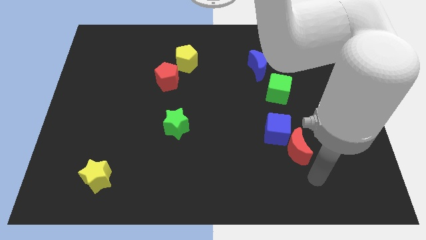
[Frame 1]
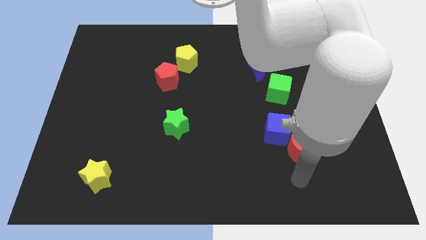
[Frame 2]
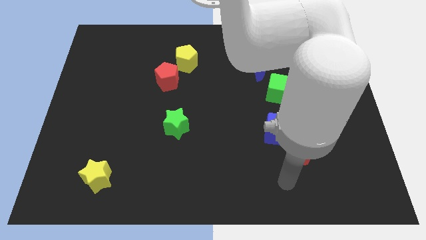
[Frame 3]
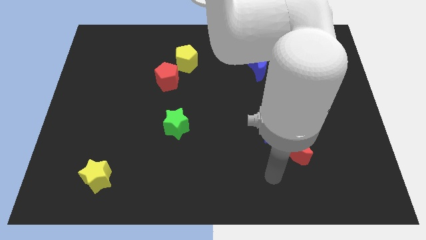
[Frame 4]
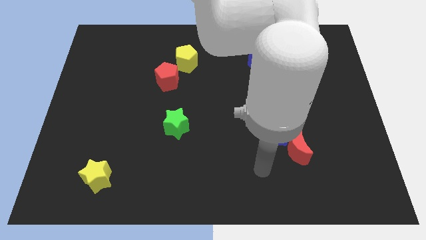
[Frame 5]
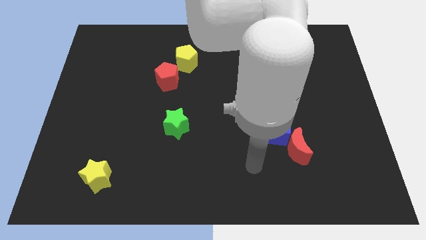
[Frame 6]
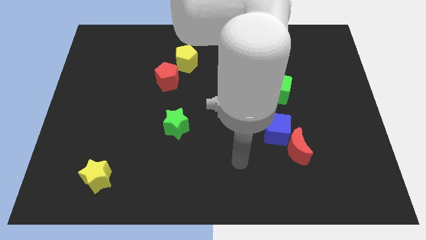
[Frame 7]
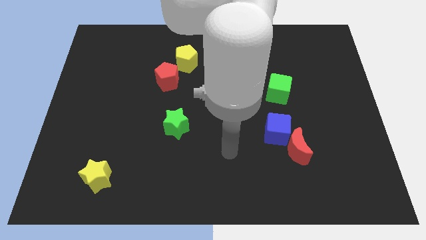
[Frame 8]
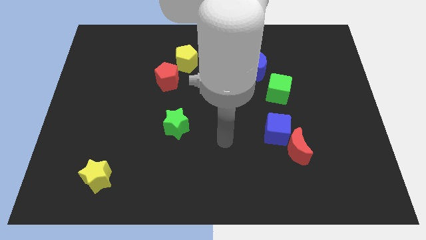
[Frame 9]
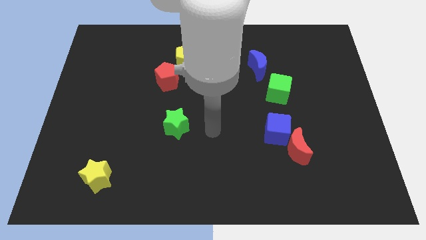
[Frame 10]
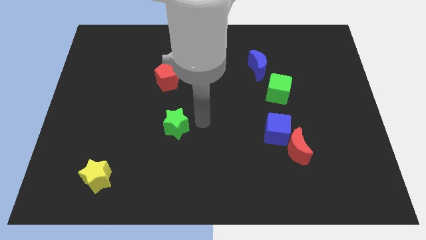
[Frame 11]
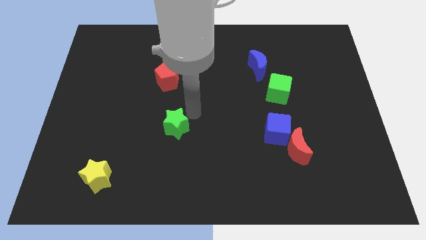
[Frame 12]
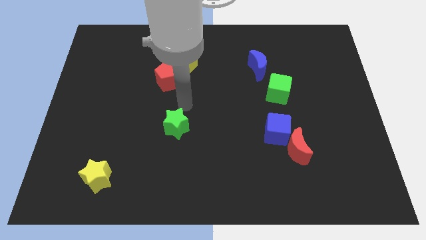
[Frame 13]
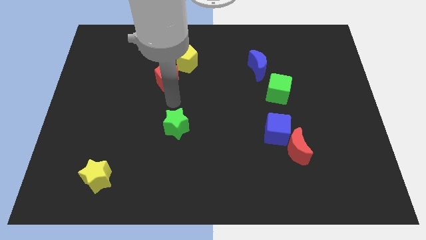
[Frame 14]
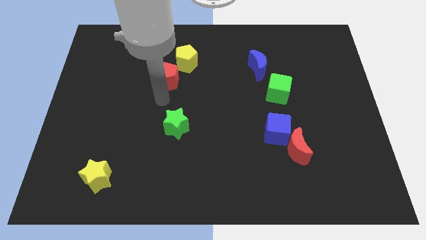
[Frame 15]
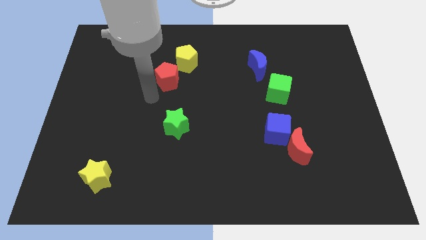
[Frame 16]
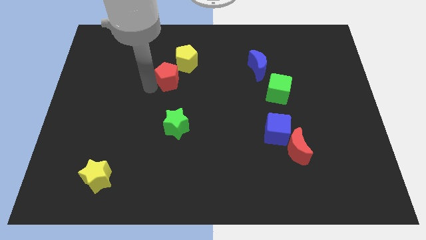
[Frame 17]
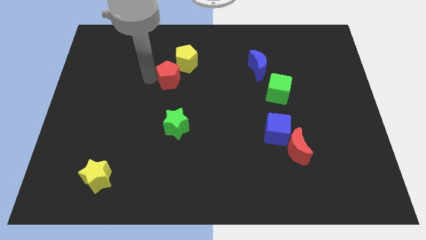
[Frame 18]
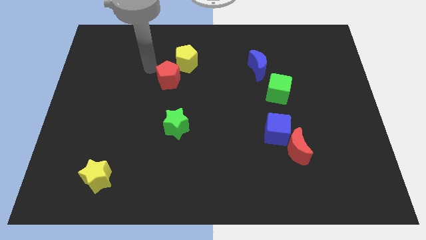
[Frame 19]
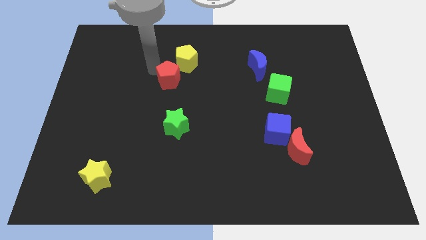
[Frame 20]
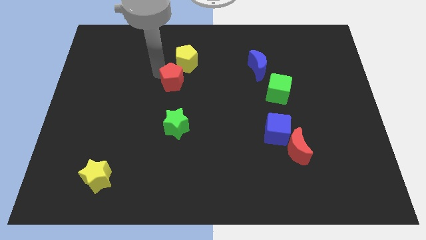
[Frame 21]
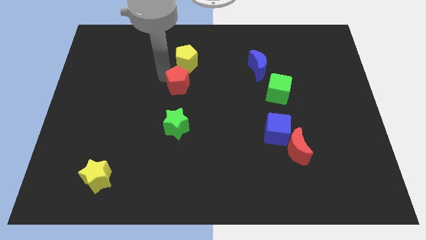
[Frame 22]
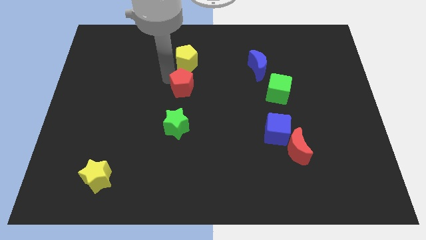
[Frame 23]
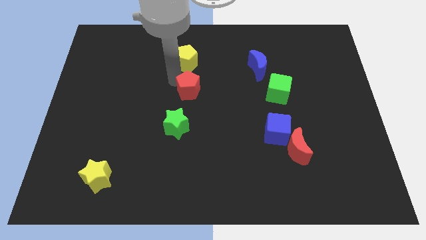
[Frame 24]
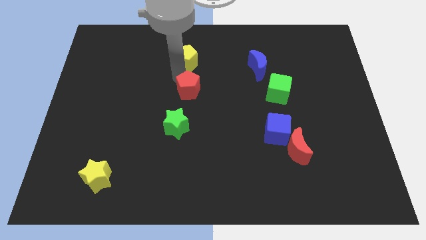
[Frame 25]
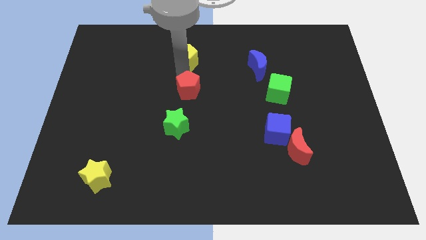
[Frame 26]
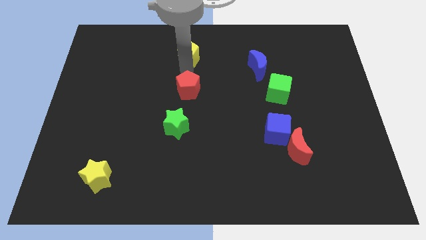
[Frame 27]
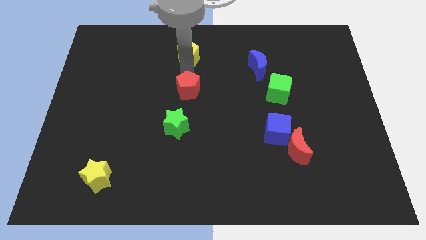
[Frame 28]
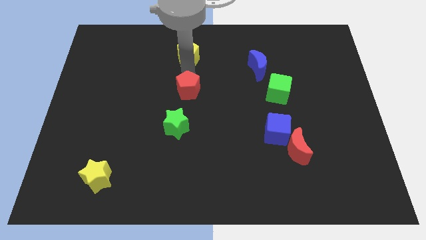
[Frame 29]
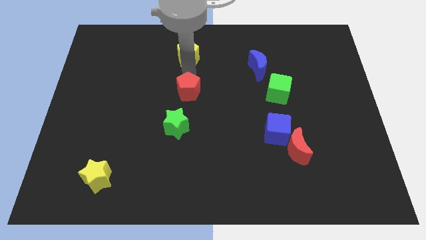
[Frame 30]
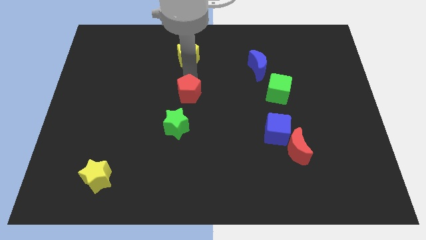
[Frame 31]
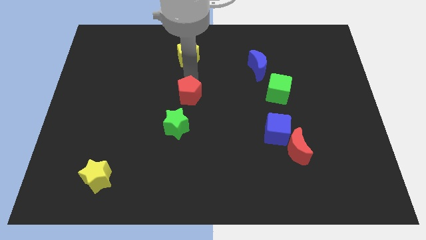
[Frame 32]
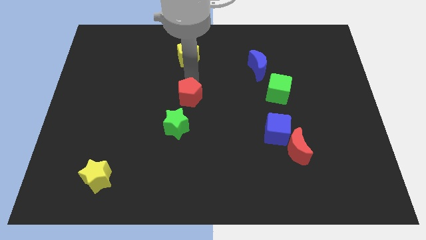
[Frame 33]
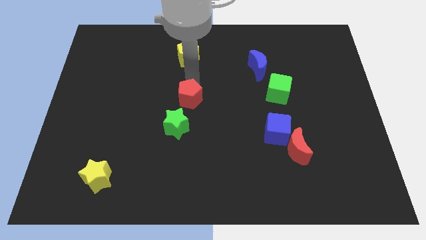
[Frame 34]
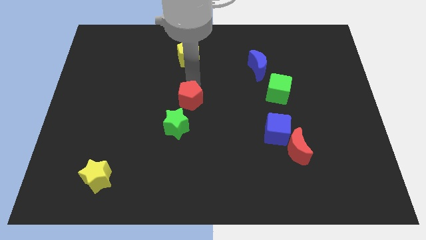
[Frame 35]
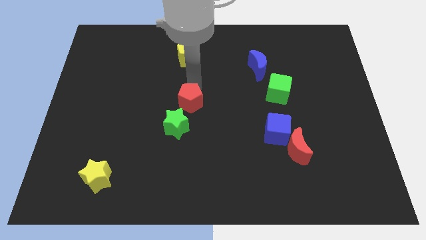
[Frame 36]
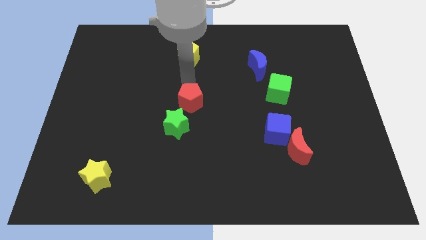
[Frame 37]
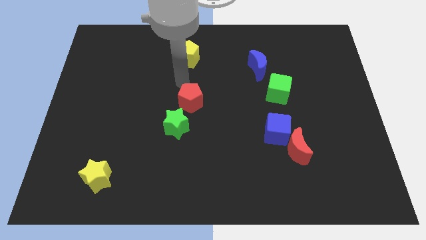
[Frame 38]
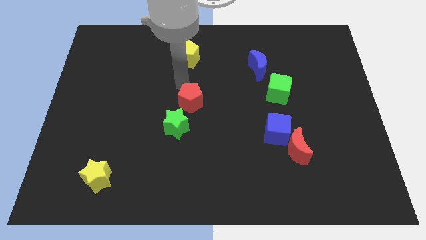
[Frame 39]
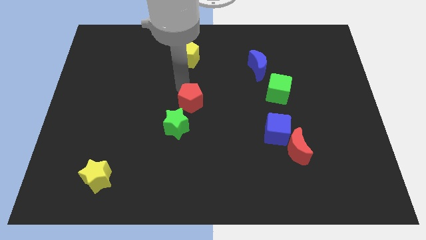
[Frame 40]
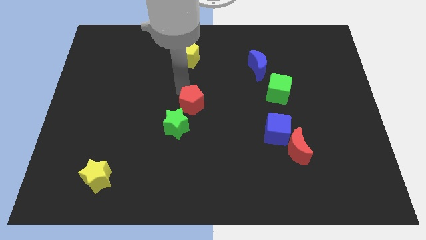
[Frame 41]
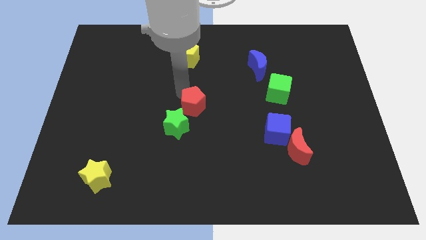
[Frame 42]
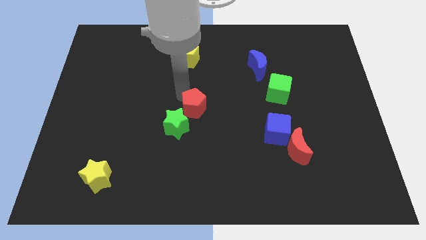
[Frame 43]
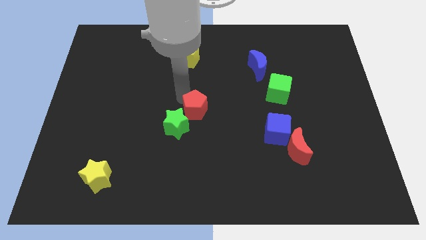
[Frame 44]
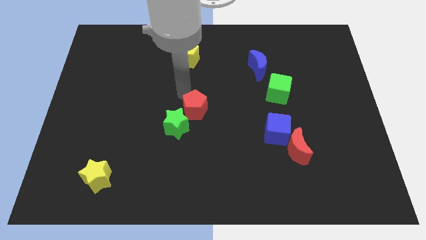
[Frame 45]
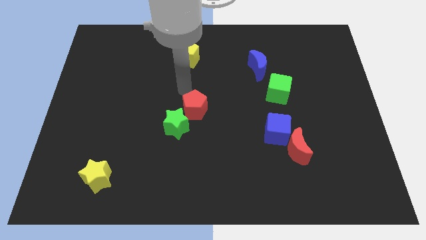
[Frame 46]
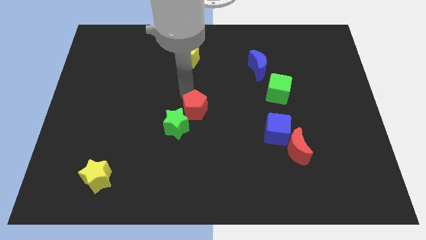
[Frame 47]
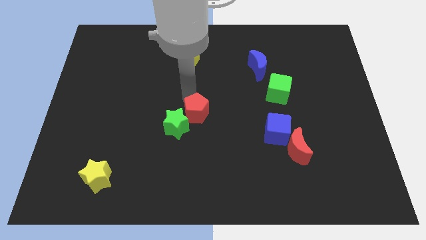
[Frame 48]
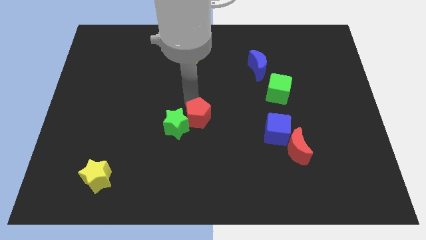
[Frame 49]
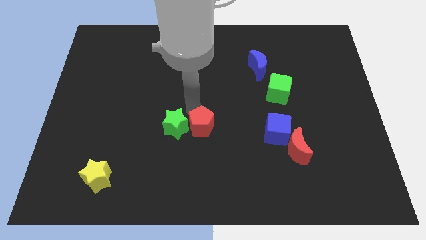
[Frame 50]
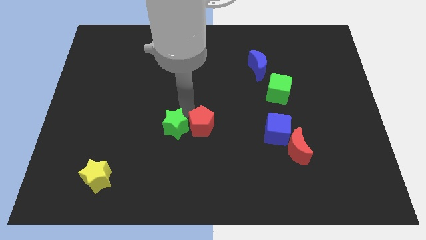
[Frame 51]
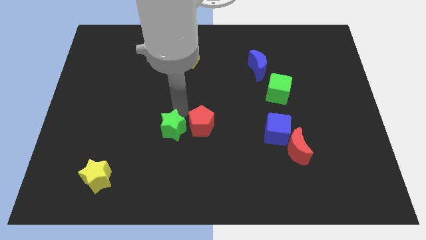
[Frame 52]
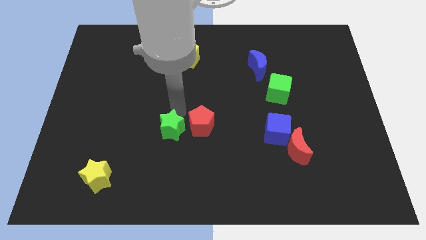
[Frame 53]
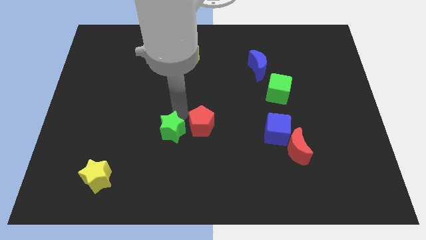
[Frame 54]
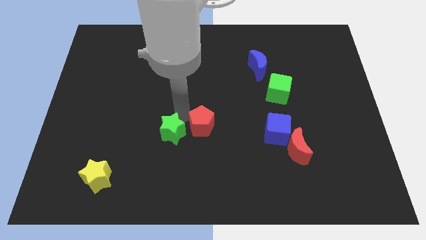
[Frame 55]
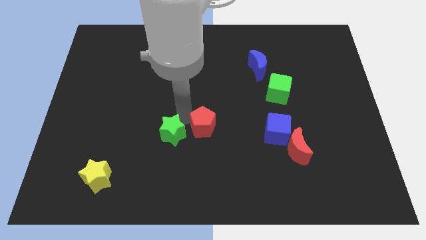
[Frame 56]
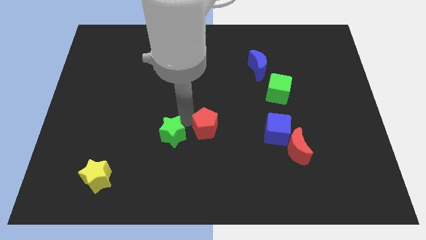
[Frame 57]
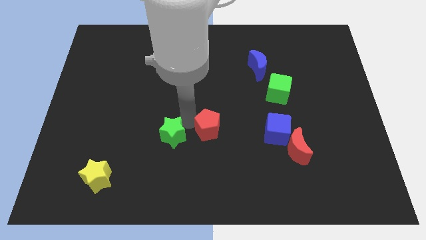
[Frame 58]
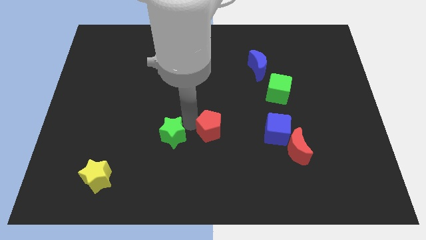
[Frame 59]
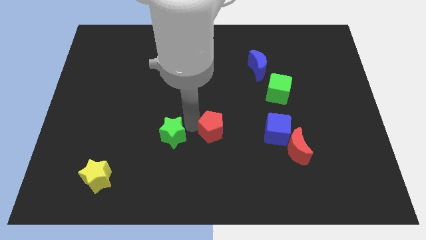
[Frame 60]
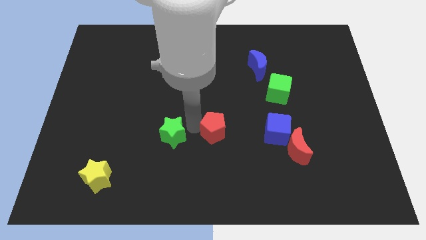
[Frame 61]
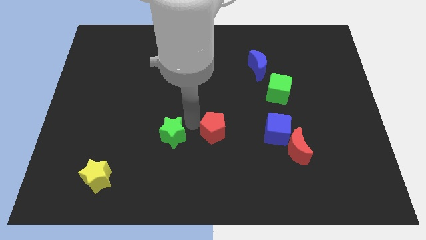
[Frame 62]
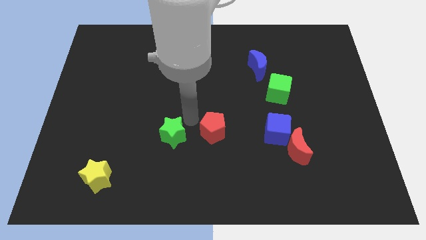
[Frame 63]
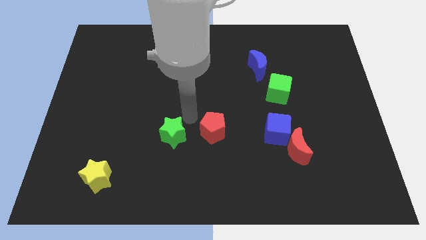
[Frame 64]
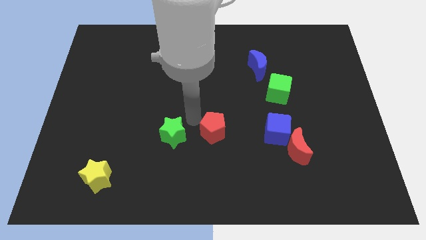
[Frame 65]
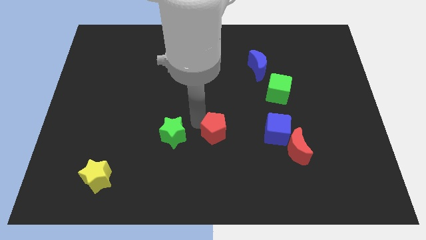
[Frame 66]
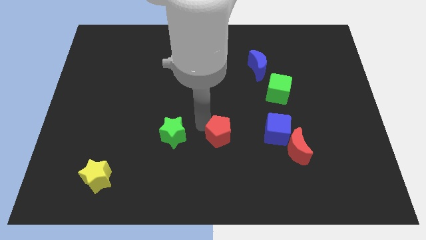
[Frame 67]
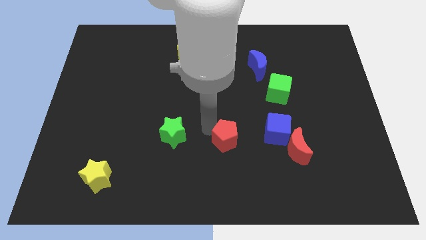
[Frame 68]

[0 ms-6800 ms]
slide the red pentagon to the left of the red moon

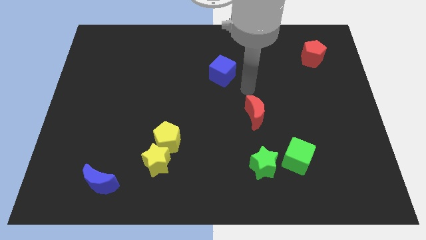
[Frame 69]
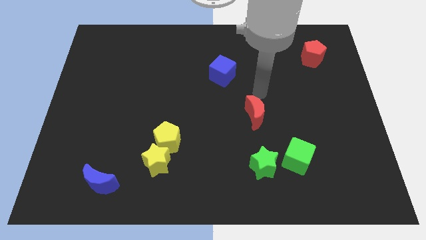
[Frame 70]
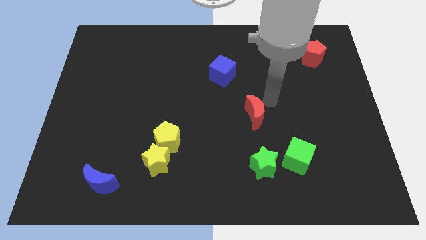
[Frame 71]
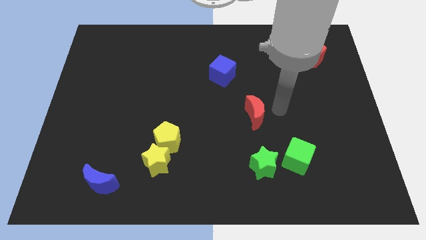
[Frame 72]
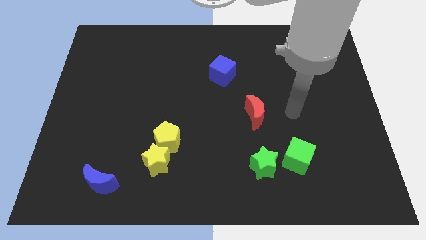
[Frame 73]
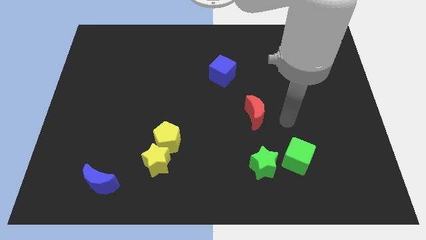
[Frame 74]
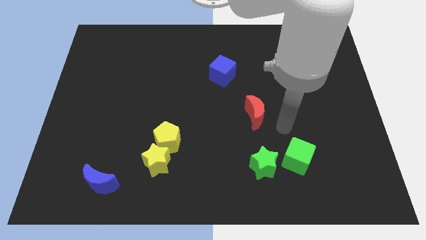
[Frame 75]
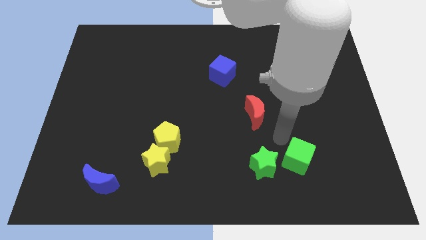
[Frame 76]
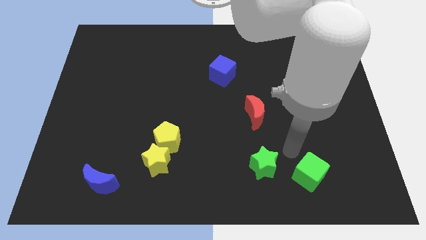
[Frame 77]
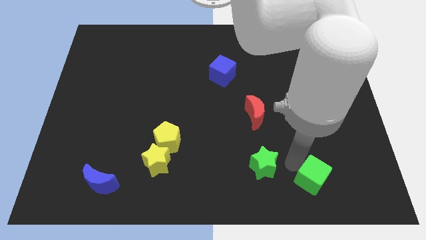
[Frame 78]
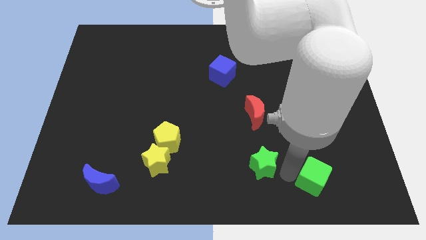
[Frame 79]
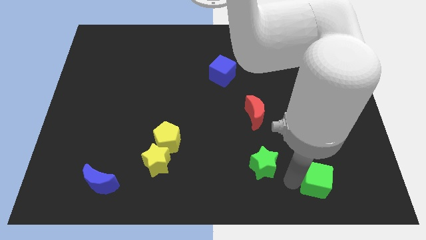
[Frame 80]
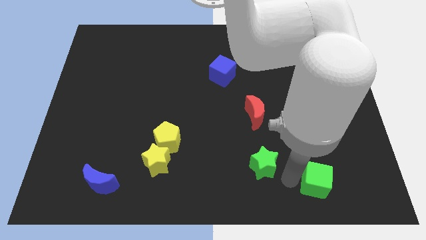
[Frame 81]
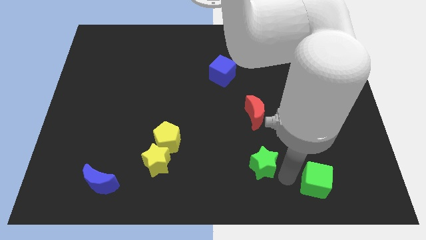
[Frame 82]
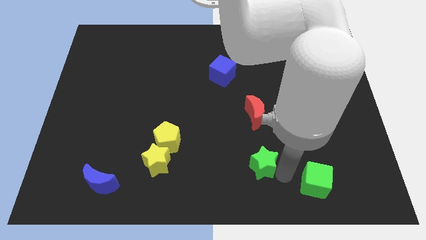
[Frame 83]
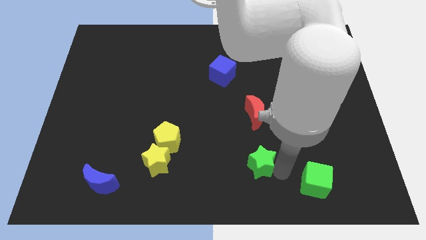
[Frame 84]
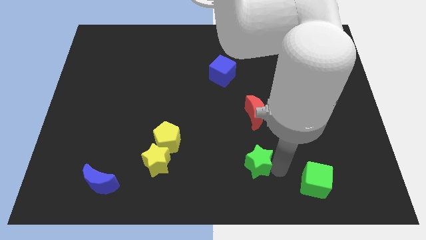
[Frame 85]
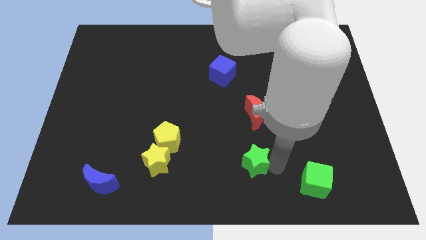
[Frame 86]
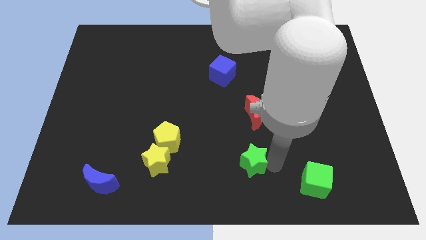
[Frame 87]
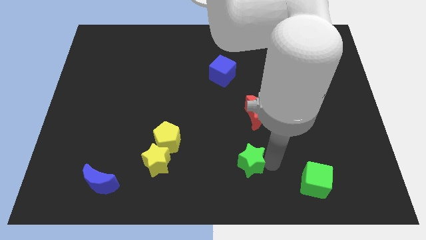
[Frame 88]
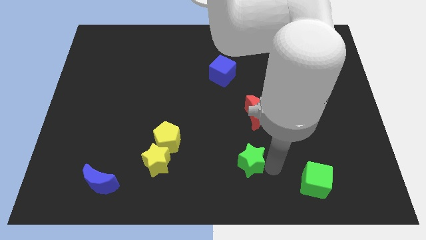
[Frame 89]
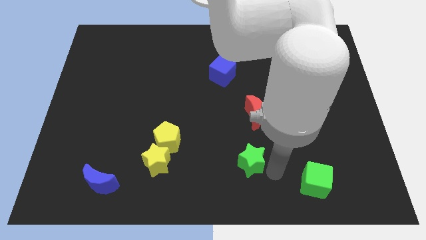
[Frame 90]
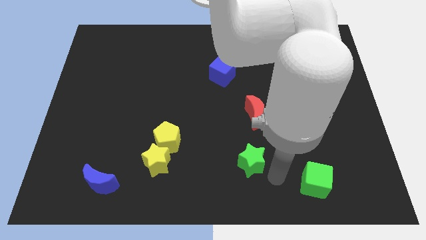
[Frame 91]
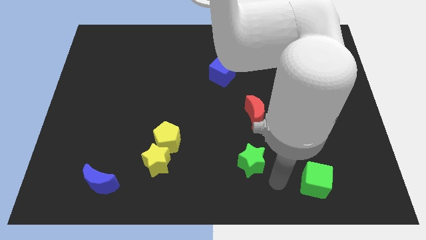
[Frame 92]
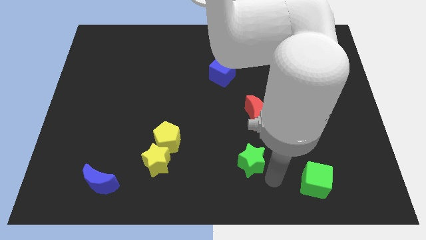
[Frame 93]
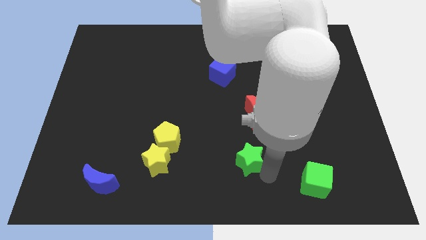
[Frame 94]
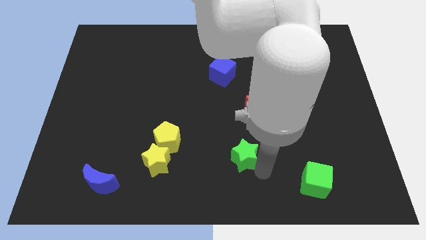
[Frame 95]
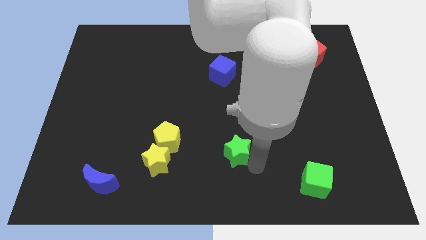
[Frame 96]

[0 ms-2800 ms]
slide the green star to the right of the yellow pentagon
